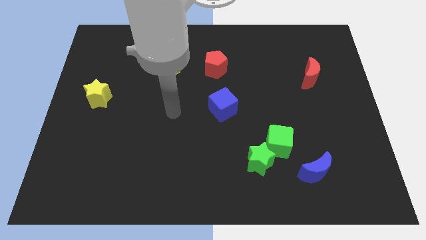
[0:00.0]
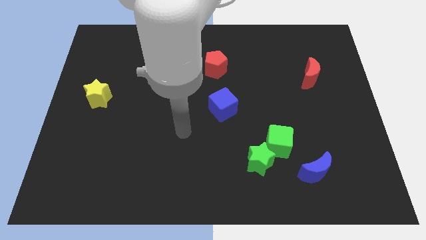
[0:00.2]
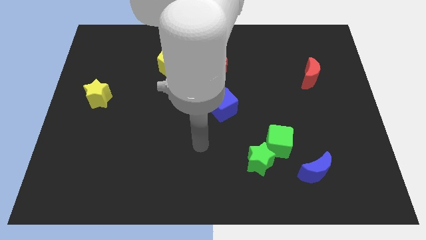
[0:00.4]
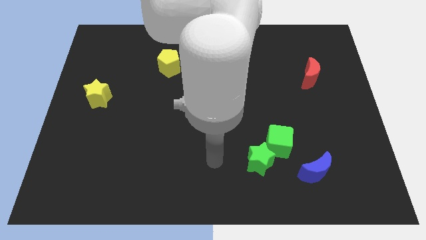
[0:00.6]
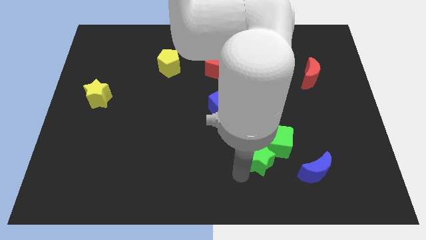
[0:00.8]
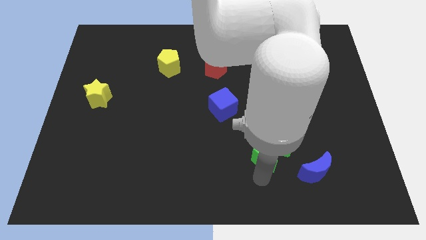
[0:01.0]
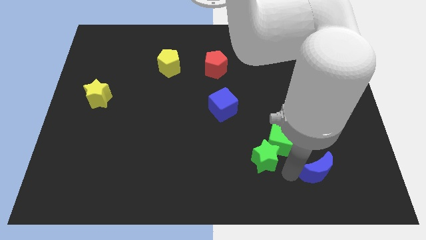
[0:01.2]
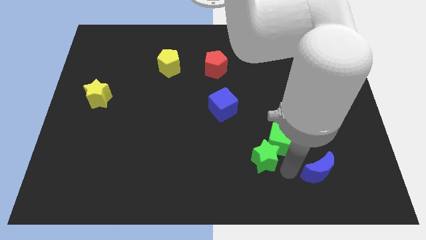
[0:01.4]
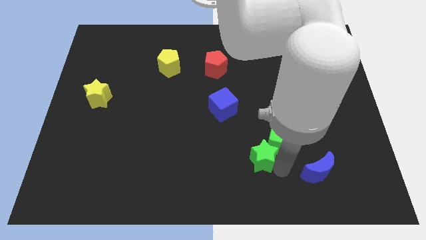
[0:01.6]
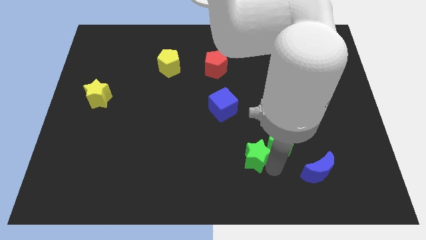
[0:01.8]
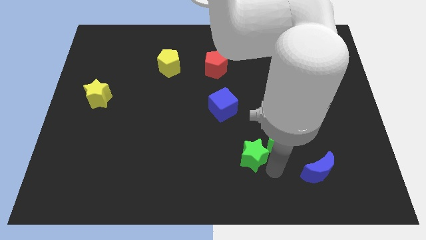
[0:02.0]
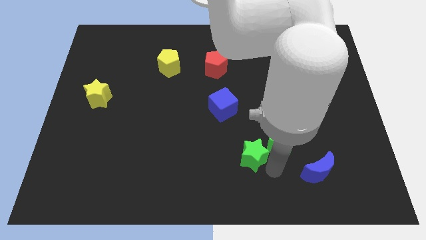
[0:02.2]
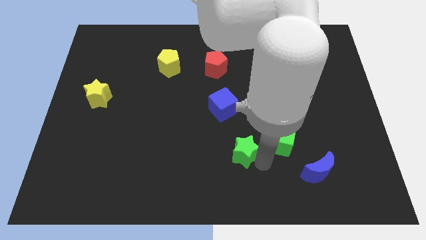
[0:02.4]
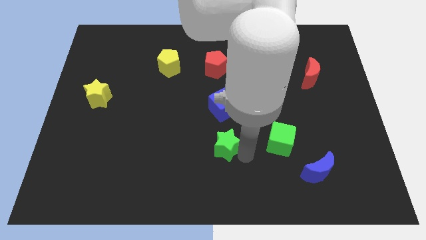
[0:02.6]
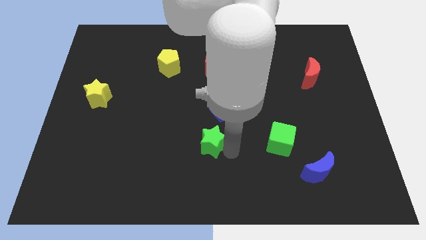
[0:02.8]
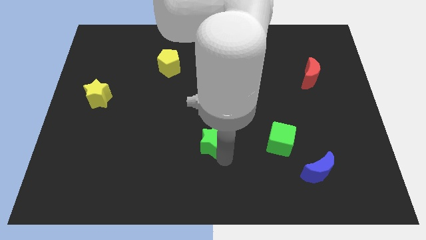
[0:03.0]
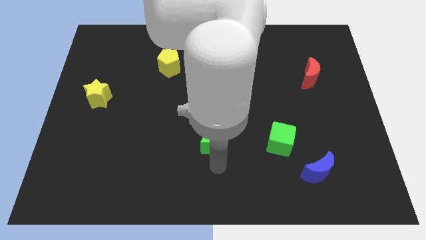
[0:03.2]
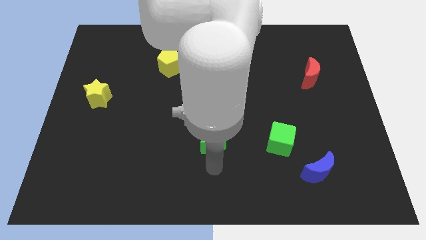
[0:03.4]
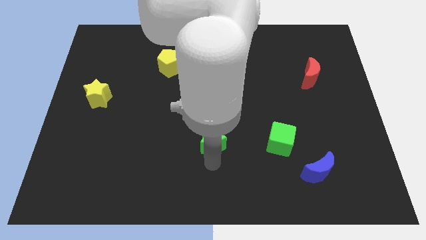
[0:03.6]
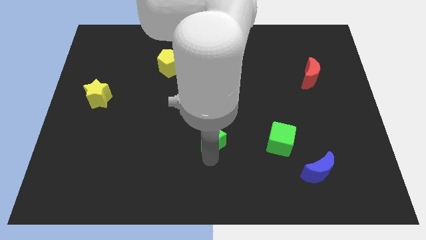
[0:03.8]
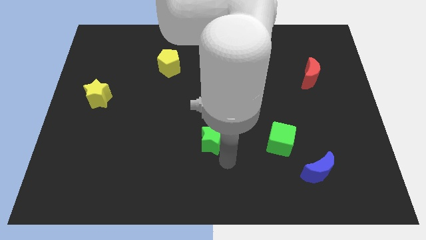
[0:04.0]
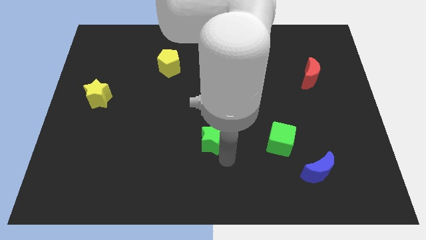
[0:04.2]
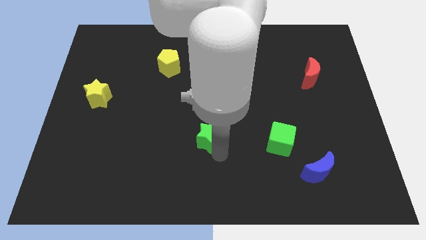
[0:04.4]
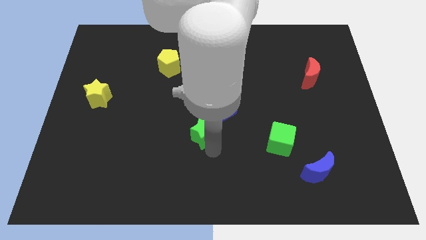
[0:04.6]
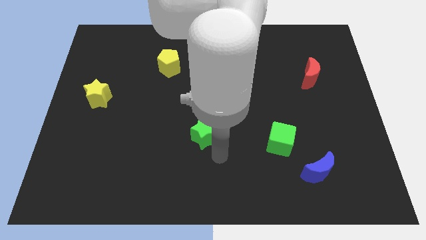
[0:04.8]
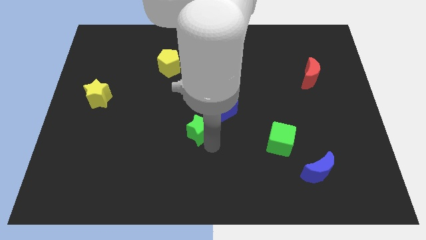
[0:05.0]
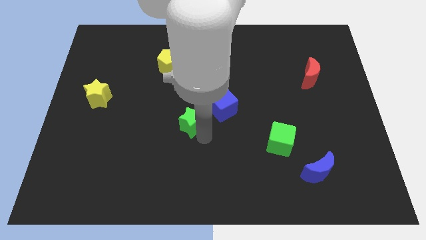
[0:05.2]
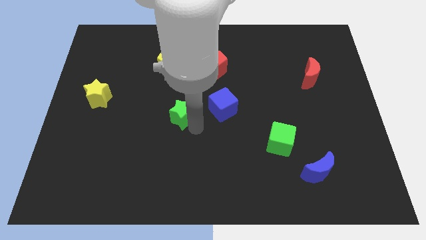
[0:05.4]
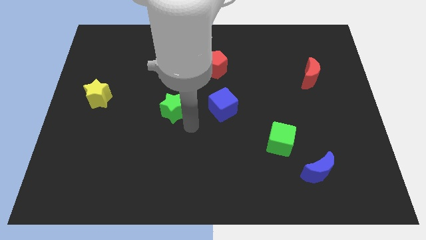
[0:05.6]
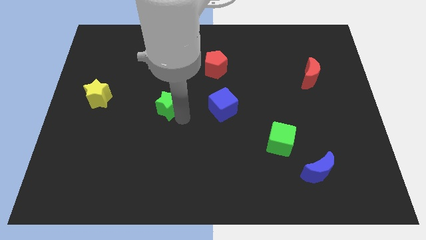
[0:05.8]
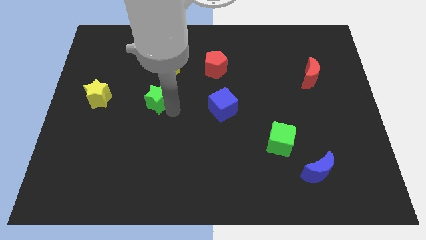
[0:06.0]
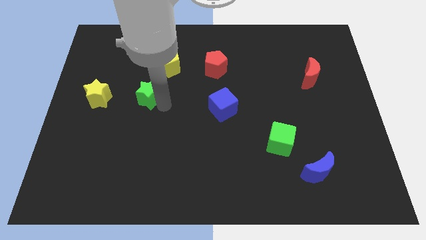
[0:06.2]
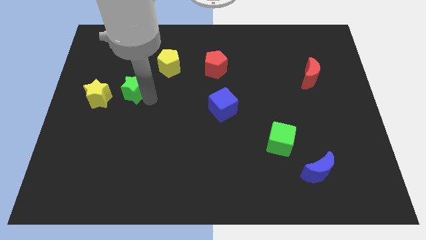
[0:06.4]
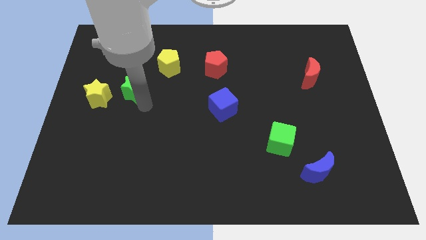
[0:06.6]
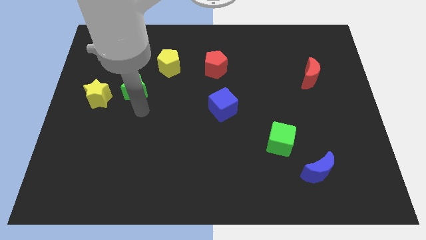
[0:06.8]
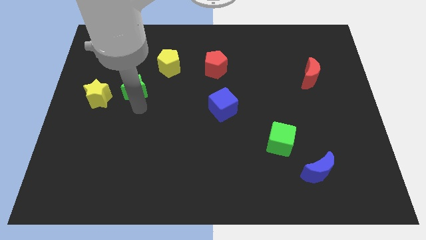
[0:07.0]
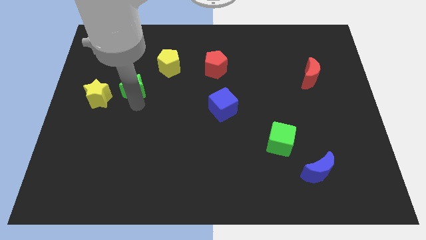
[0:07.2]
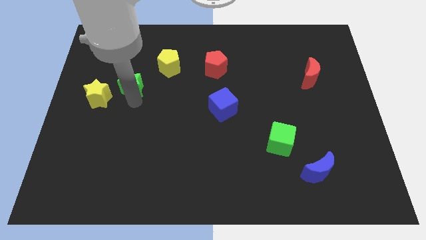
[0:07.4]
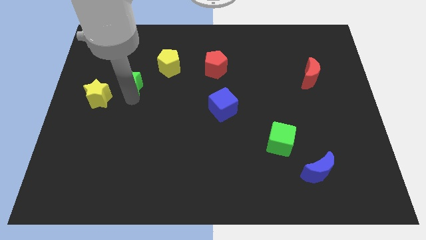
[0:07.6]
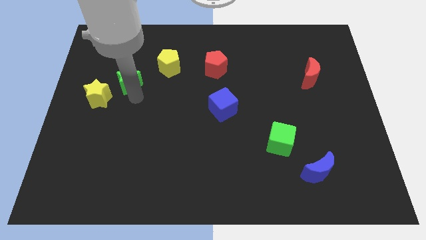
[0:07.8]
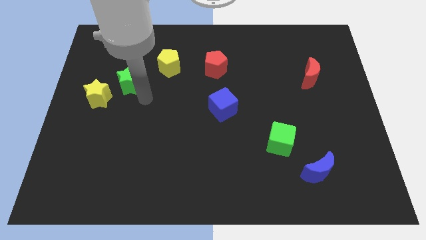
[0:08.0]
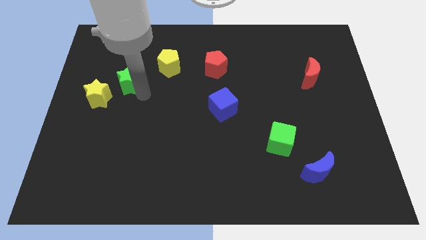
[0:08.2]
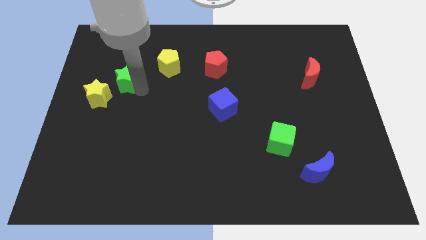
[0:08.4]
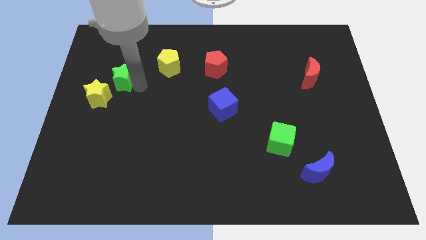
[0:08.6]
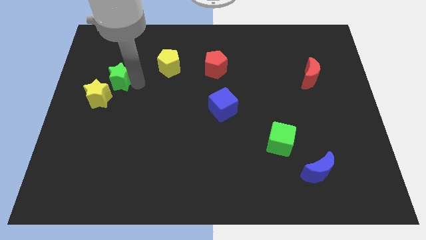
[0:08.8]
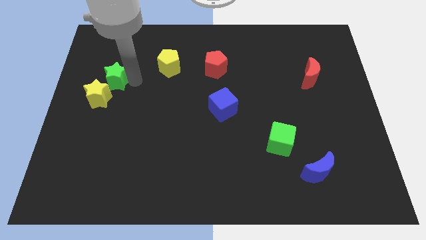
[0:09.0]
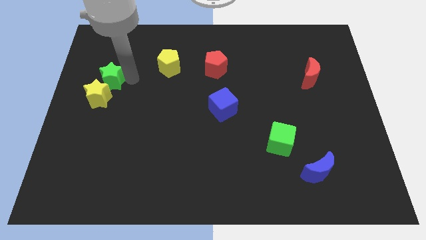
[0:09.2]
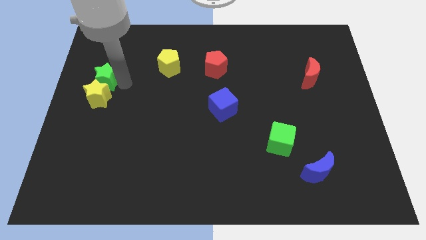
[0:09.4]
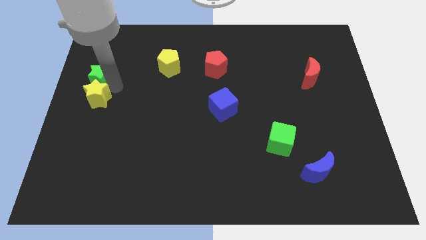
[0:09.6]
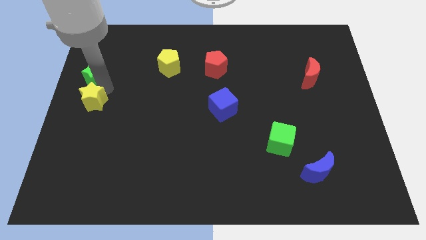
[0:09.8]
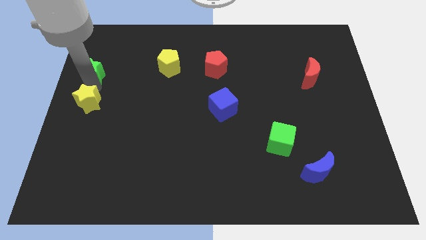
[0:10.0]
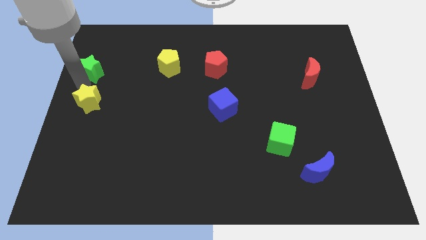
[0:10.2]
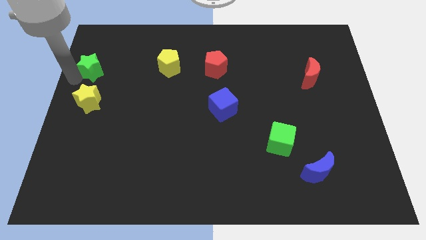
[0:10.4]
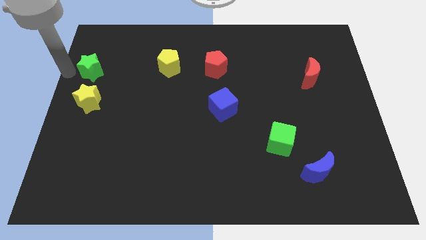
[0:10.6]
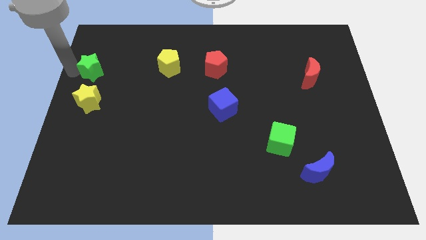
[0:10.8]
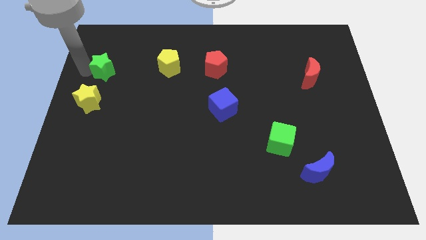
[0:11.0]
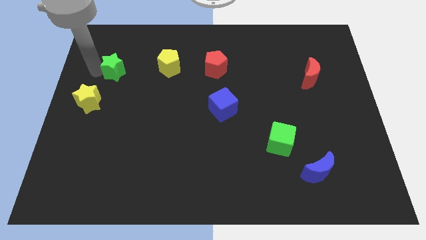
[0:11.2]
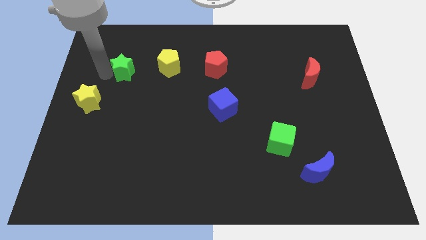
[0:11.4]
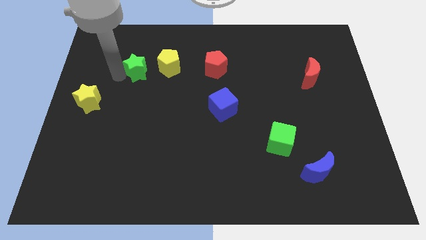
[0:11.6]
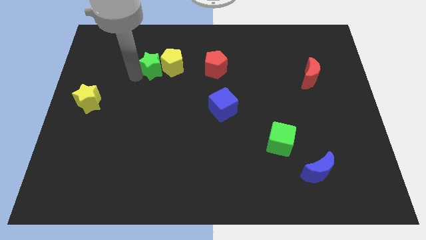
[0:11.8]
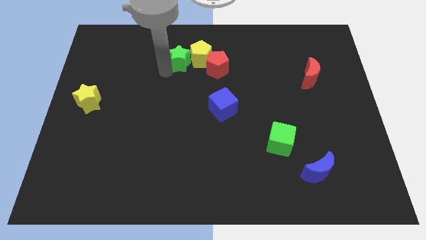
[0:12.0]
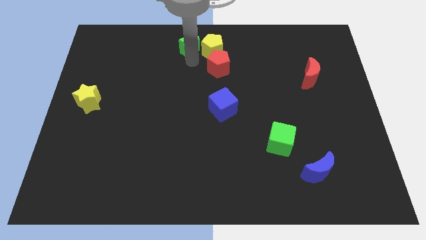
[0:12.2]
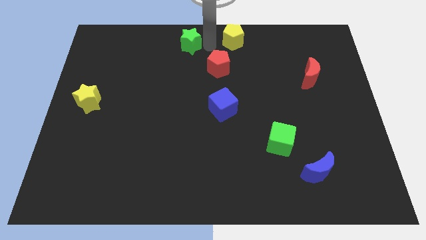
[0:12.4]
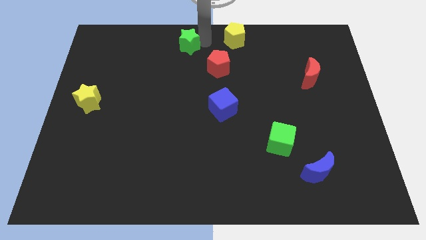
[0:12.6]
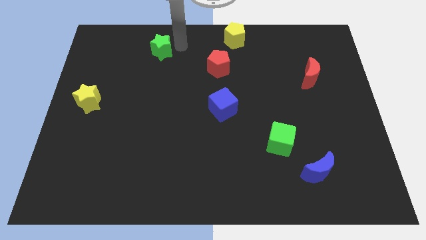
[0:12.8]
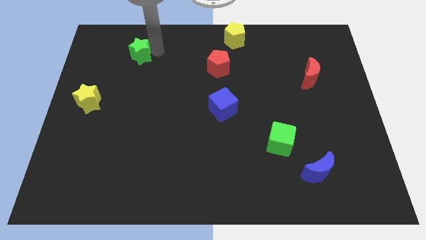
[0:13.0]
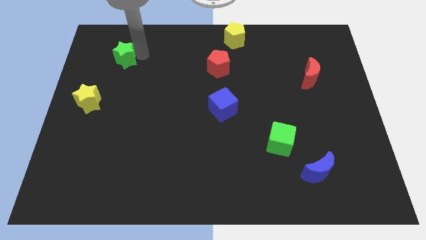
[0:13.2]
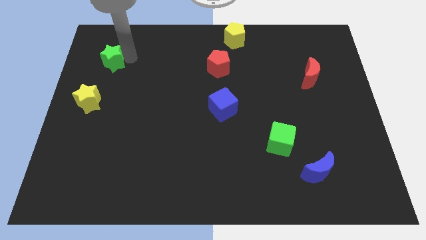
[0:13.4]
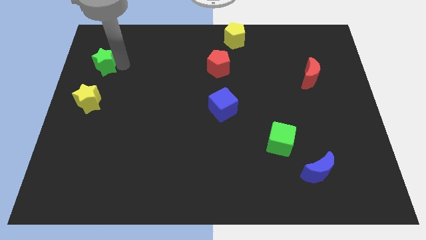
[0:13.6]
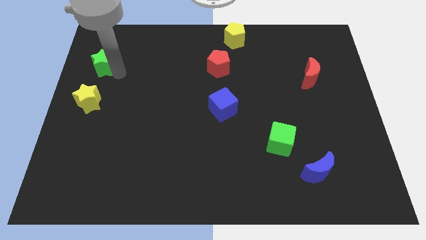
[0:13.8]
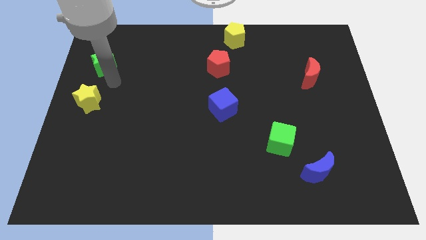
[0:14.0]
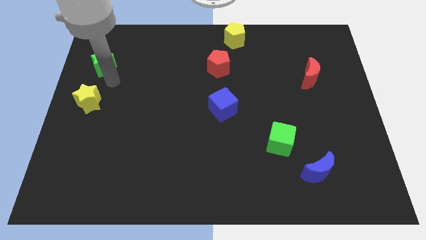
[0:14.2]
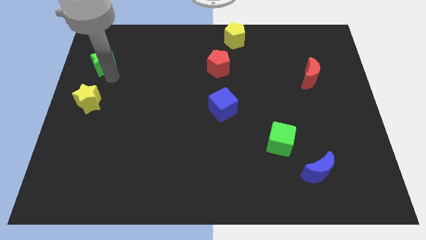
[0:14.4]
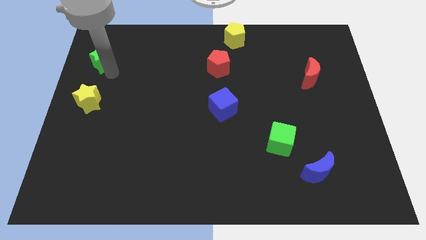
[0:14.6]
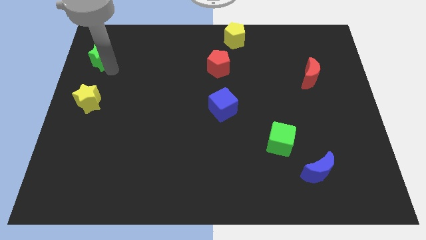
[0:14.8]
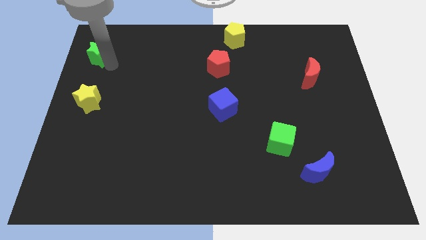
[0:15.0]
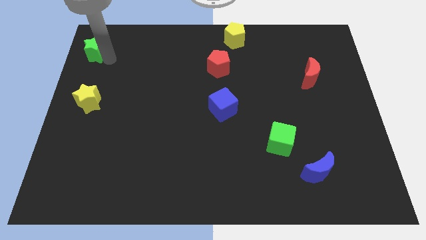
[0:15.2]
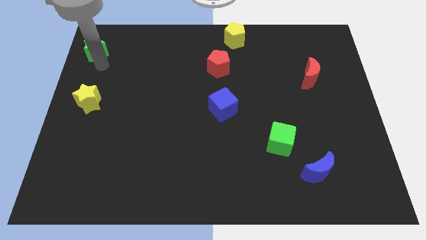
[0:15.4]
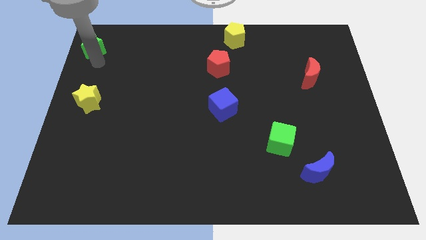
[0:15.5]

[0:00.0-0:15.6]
slide the green star to the upper left corner
